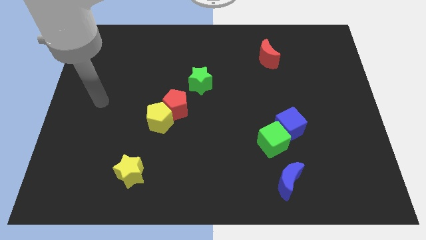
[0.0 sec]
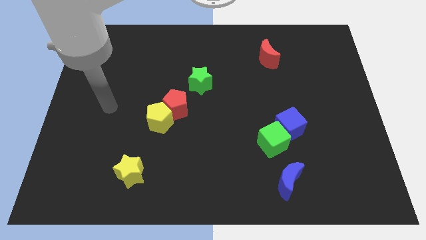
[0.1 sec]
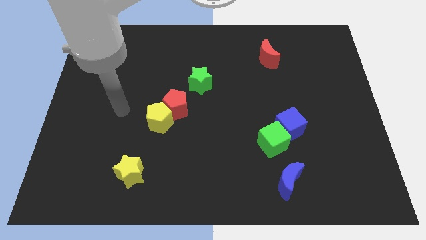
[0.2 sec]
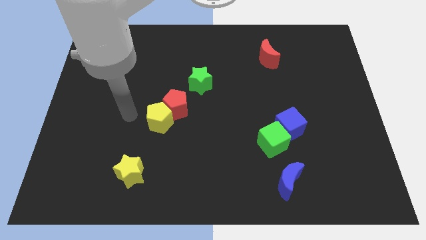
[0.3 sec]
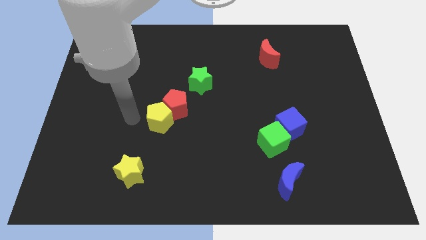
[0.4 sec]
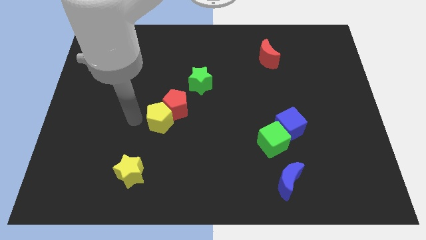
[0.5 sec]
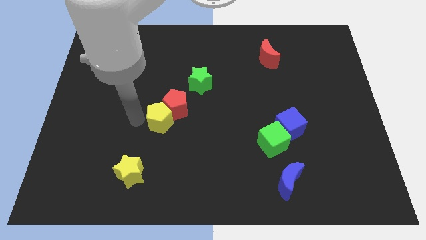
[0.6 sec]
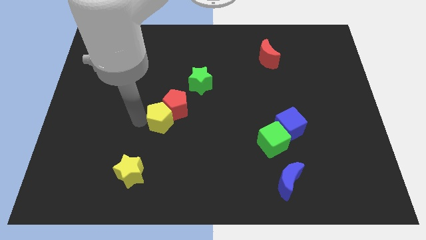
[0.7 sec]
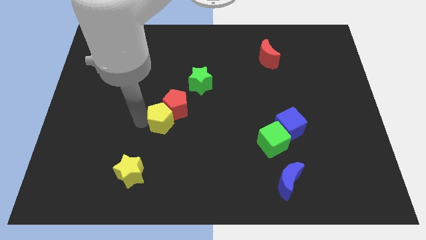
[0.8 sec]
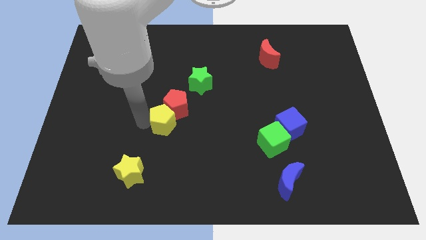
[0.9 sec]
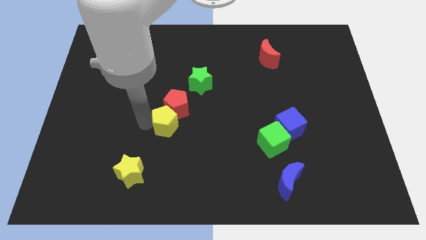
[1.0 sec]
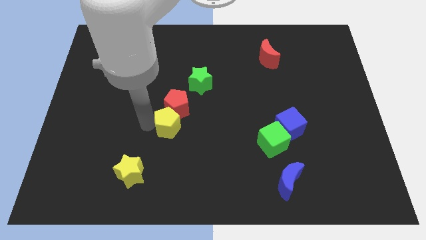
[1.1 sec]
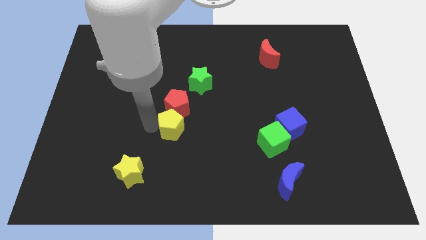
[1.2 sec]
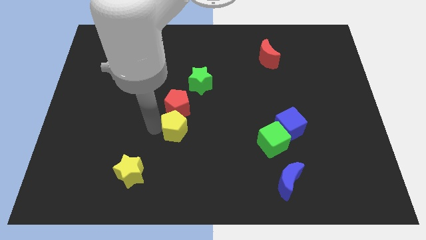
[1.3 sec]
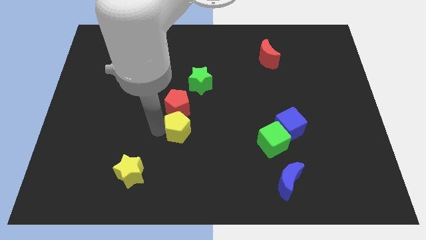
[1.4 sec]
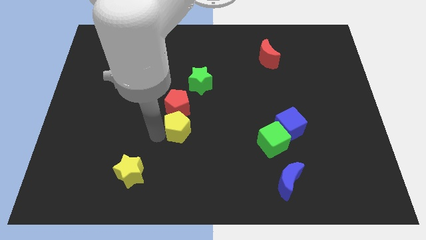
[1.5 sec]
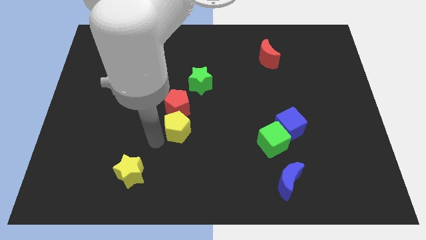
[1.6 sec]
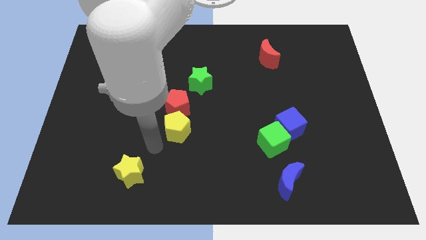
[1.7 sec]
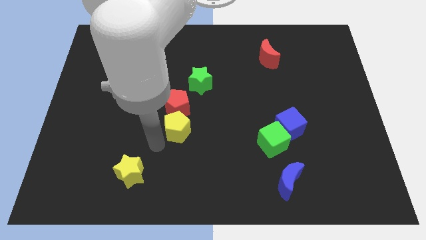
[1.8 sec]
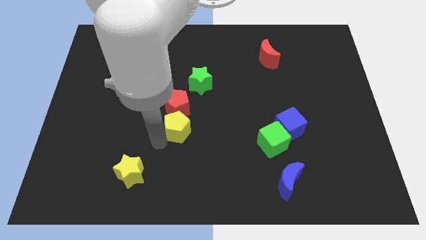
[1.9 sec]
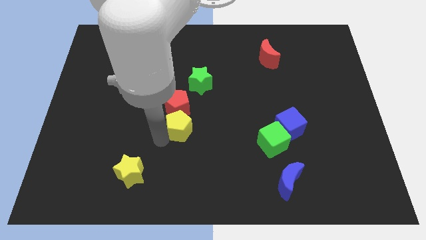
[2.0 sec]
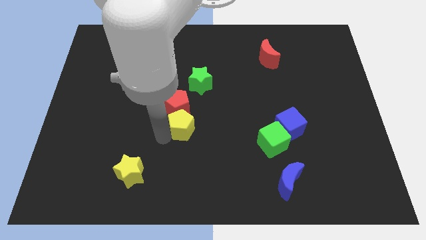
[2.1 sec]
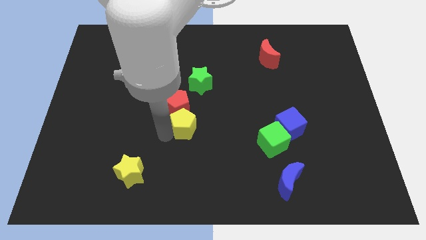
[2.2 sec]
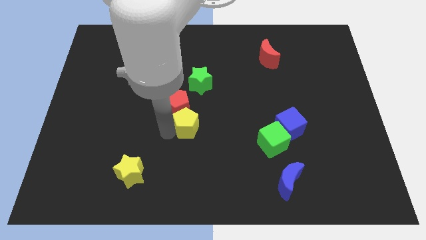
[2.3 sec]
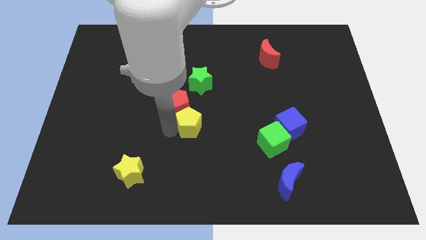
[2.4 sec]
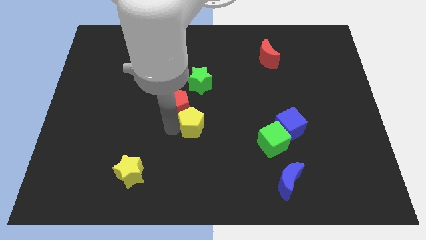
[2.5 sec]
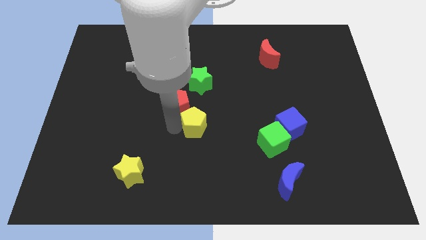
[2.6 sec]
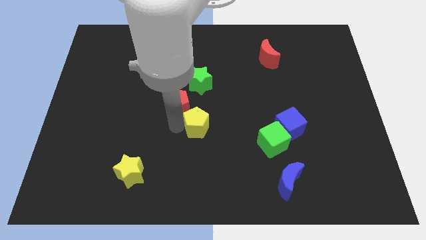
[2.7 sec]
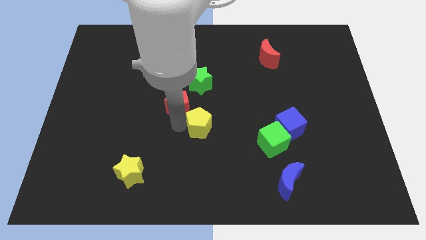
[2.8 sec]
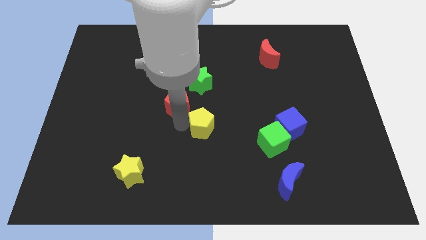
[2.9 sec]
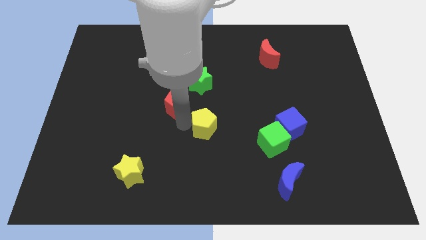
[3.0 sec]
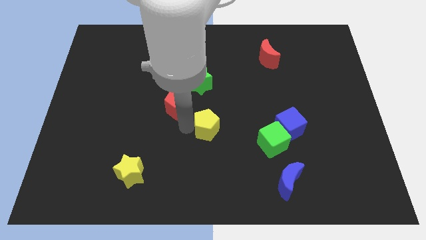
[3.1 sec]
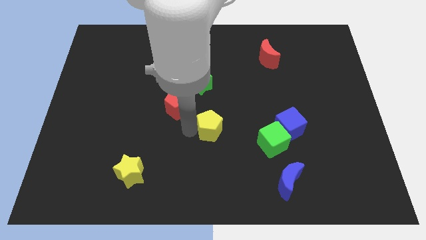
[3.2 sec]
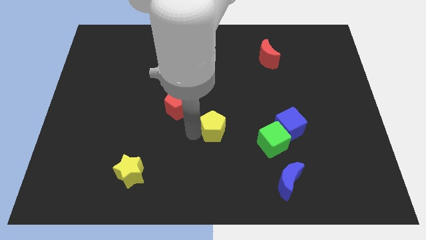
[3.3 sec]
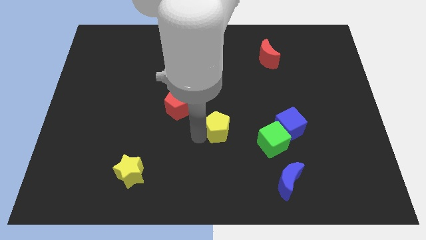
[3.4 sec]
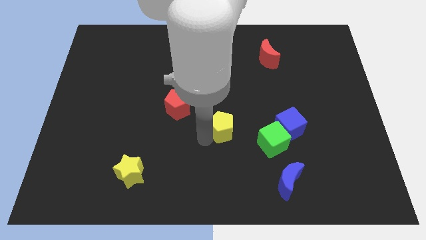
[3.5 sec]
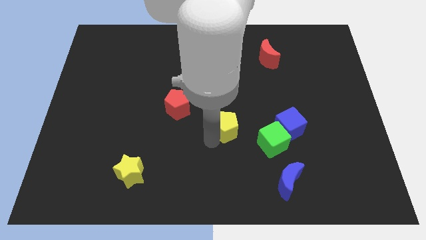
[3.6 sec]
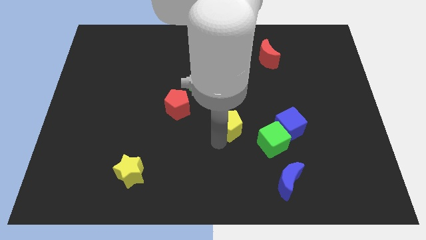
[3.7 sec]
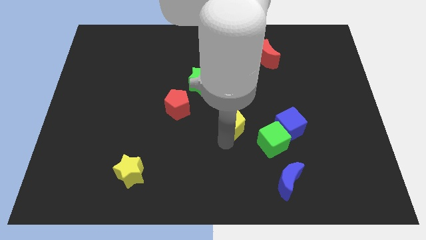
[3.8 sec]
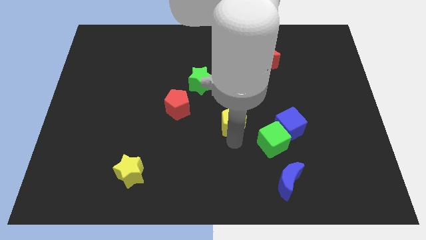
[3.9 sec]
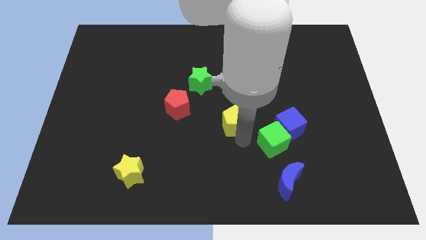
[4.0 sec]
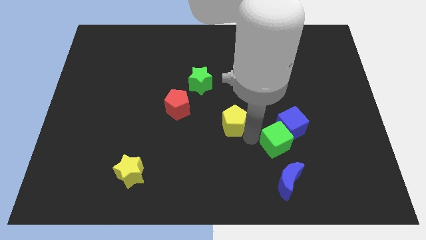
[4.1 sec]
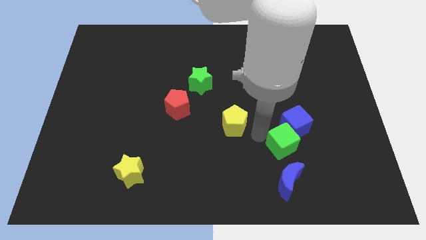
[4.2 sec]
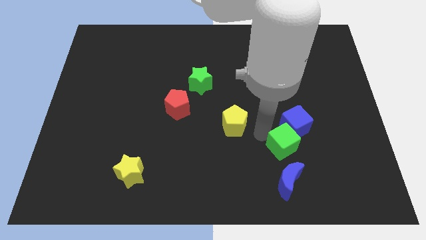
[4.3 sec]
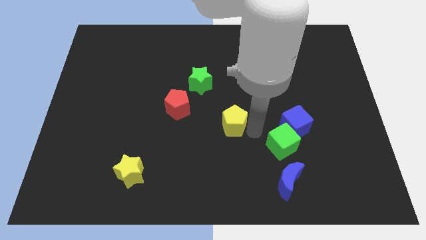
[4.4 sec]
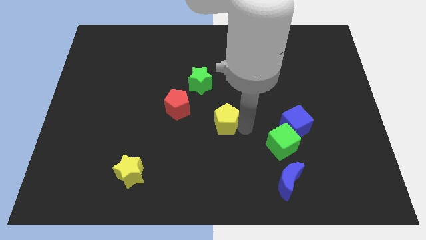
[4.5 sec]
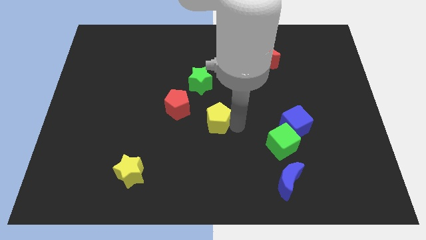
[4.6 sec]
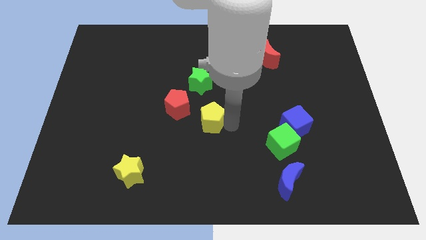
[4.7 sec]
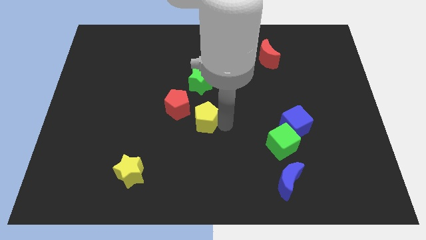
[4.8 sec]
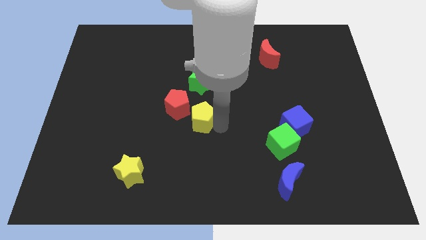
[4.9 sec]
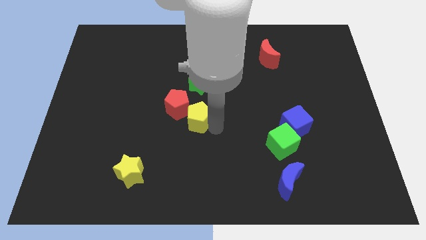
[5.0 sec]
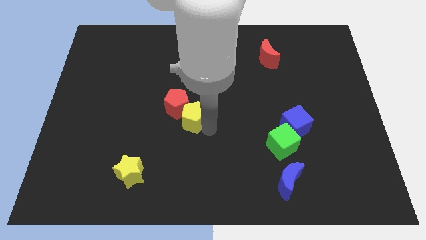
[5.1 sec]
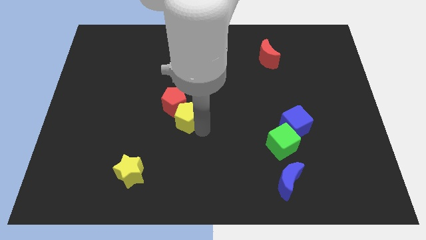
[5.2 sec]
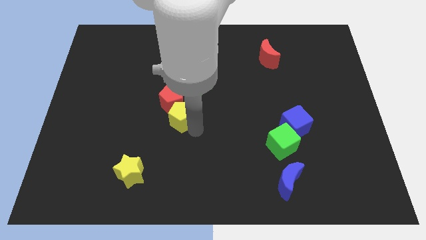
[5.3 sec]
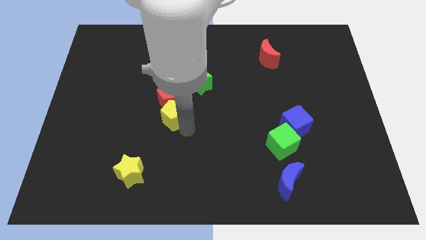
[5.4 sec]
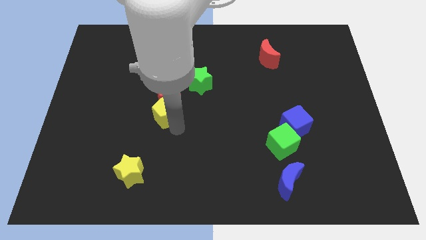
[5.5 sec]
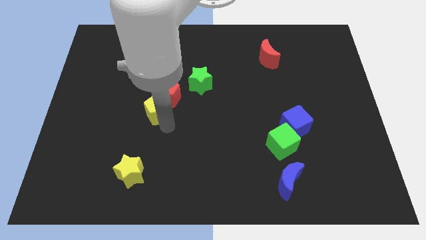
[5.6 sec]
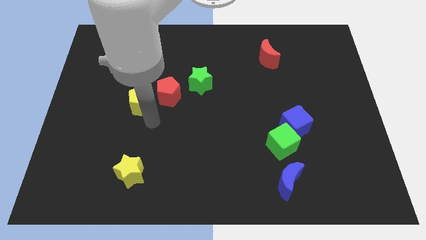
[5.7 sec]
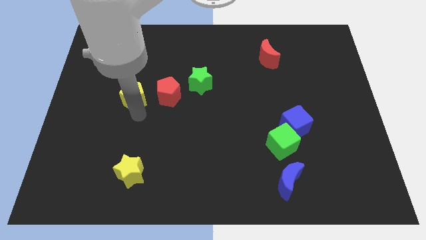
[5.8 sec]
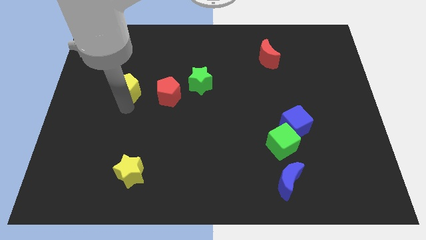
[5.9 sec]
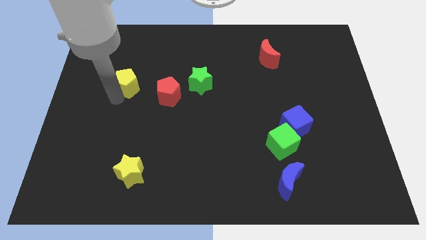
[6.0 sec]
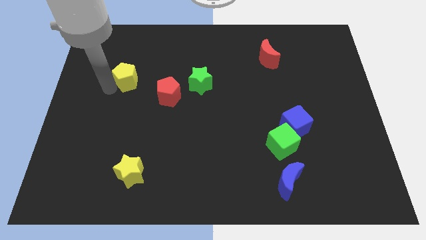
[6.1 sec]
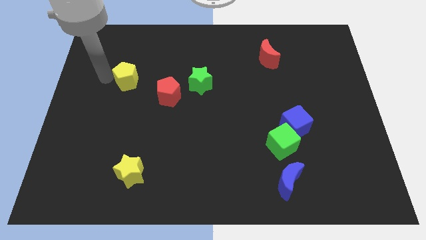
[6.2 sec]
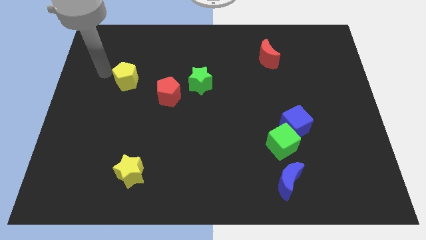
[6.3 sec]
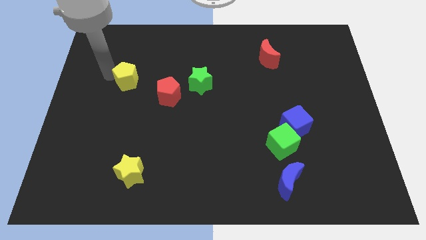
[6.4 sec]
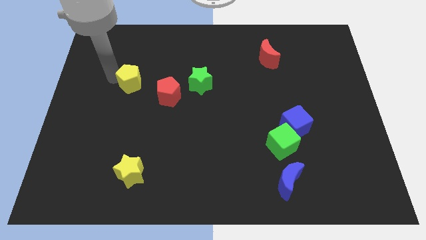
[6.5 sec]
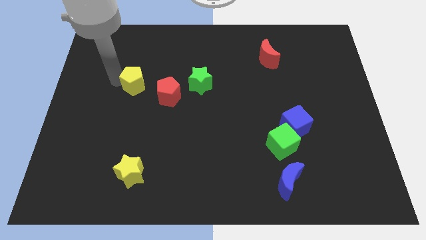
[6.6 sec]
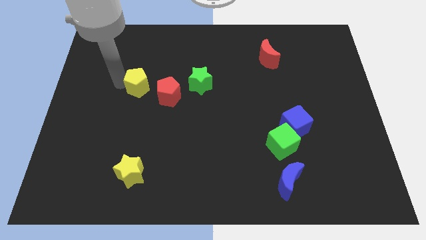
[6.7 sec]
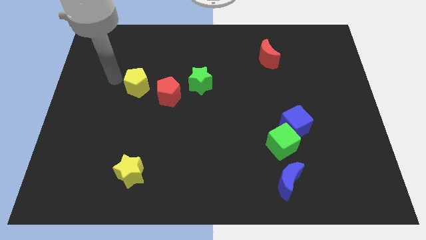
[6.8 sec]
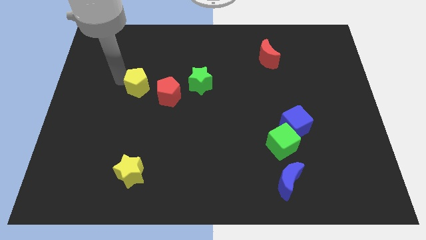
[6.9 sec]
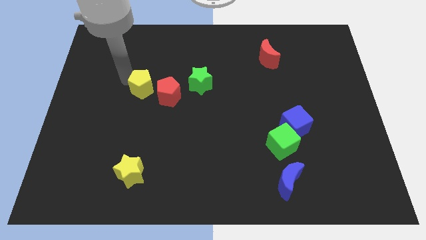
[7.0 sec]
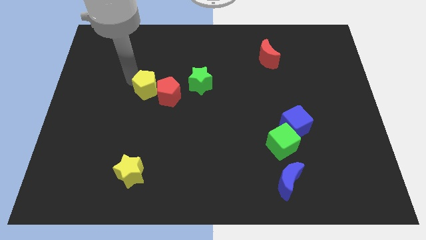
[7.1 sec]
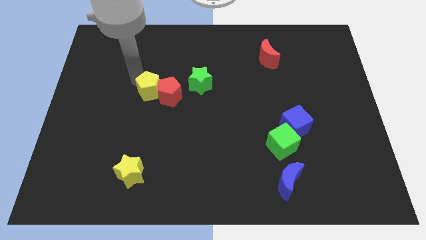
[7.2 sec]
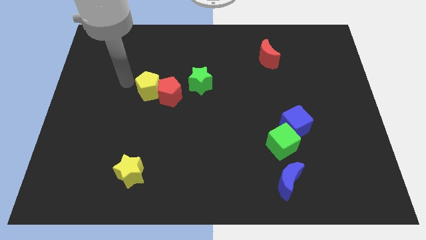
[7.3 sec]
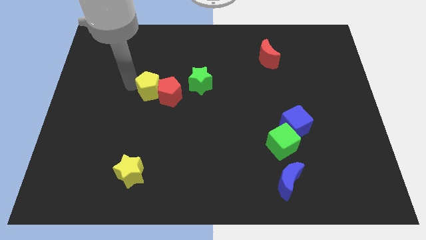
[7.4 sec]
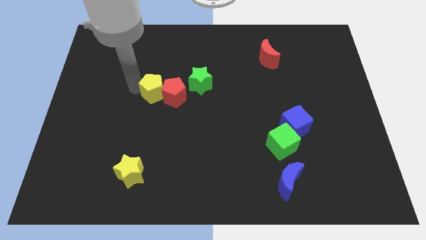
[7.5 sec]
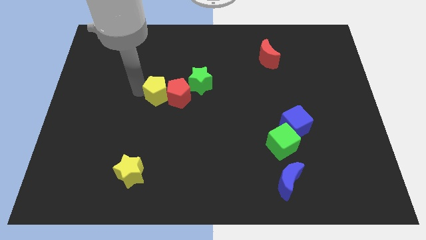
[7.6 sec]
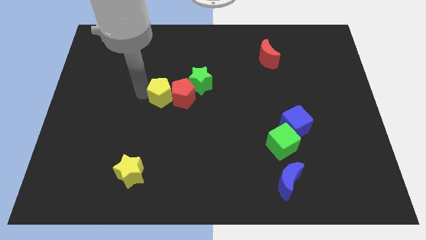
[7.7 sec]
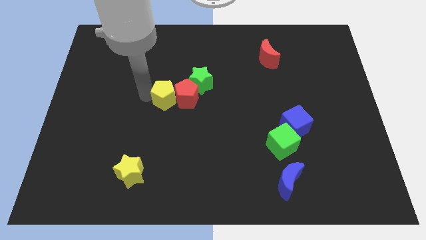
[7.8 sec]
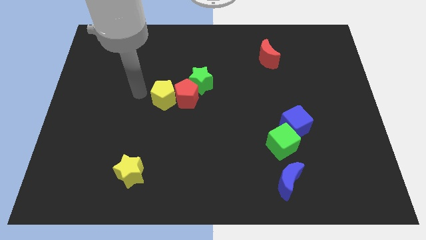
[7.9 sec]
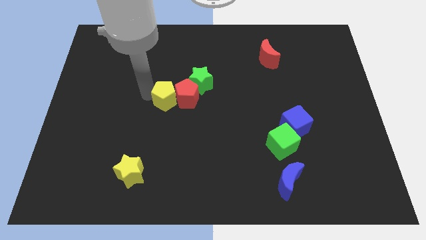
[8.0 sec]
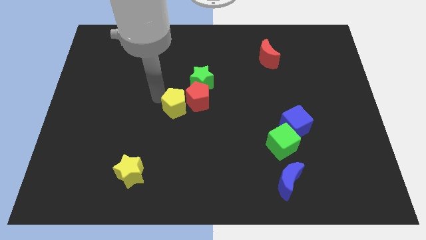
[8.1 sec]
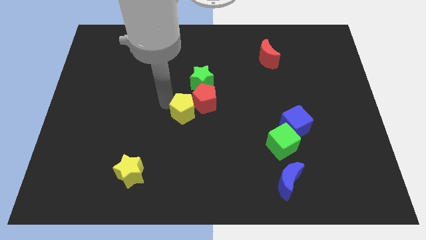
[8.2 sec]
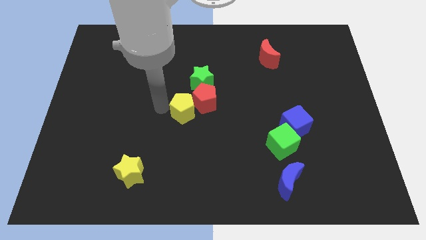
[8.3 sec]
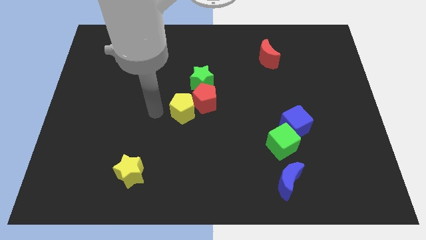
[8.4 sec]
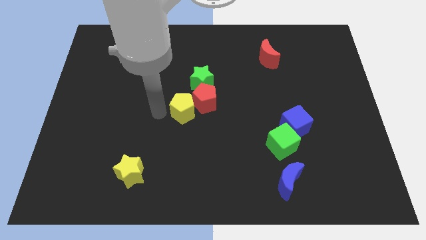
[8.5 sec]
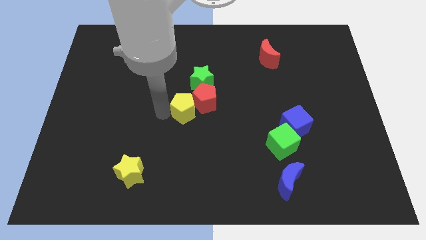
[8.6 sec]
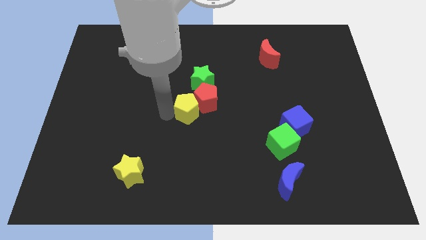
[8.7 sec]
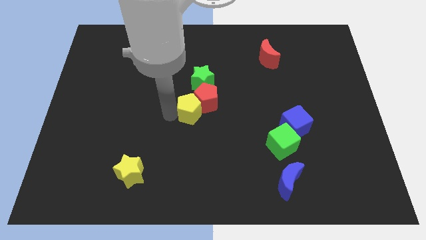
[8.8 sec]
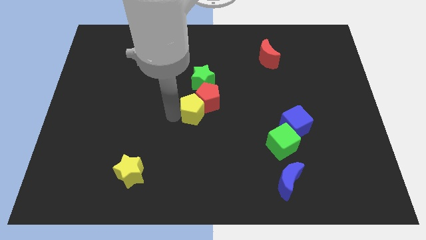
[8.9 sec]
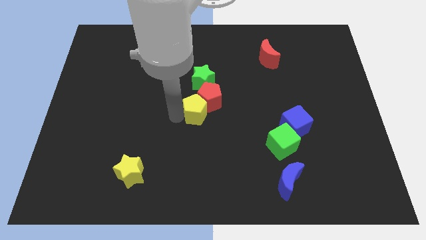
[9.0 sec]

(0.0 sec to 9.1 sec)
slide the yellow pentagon a little diagonally up and to the right
